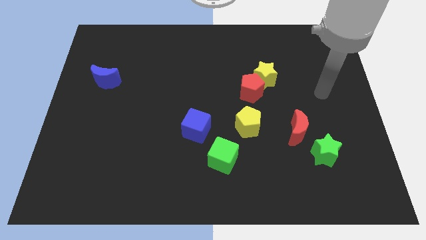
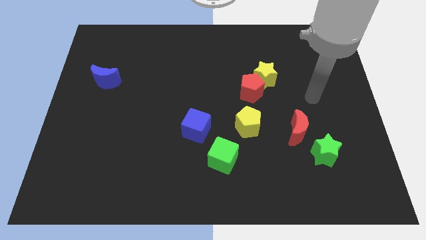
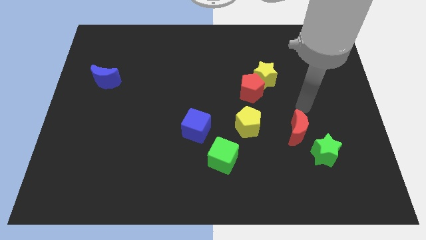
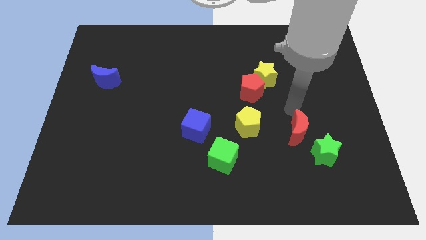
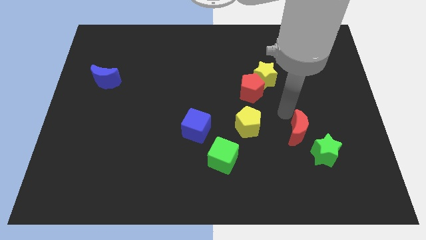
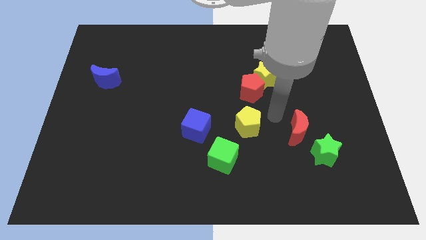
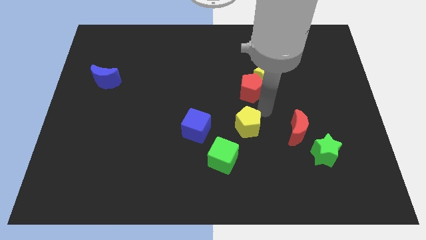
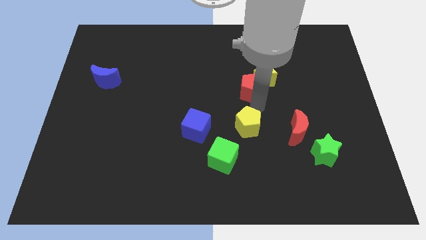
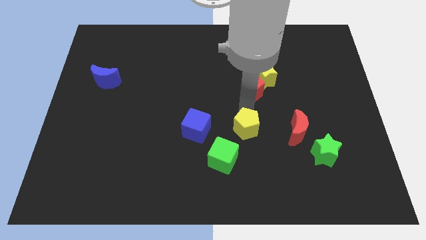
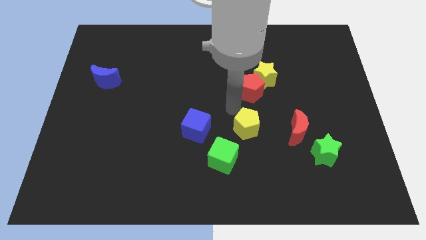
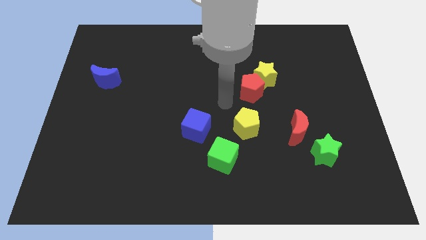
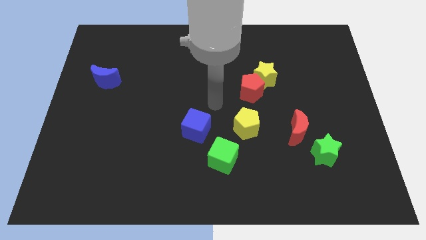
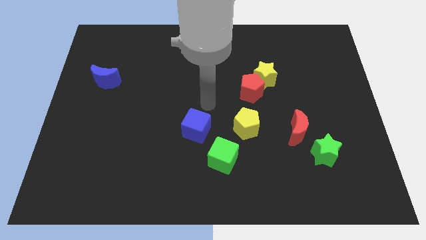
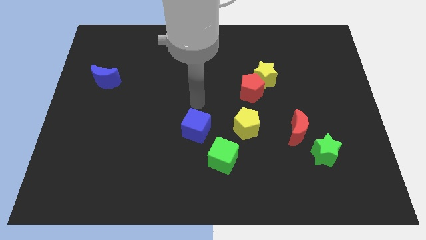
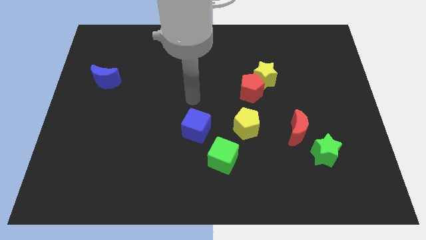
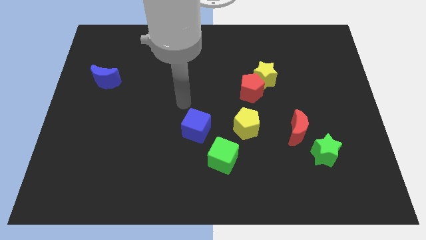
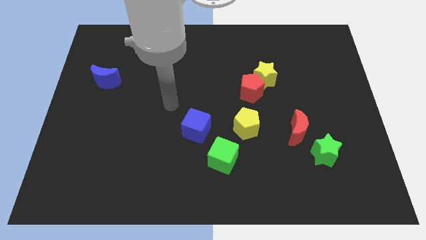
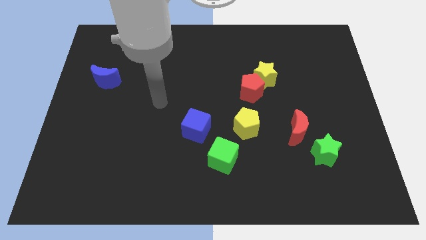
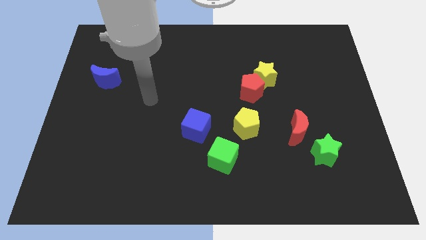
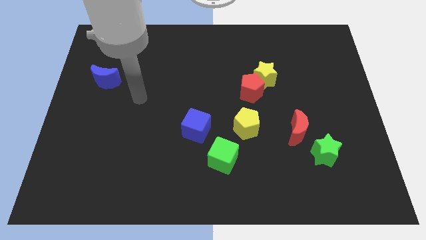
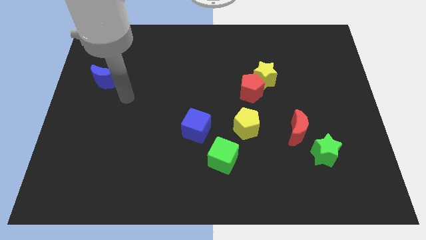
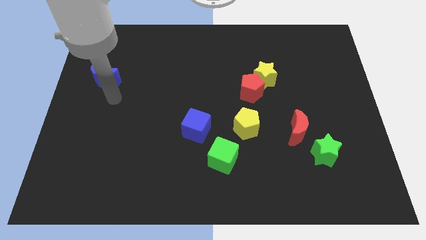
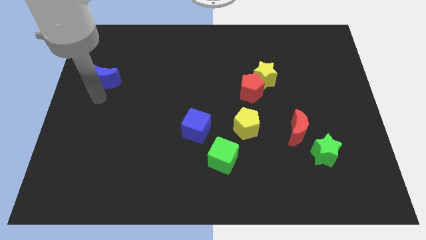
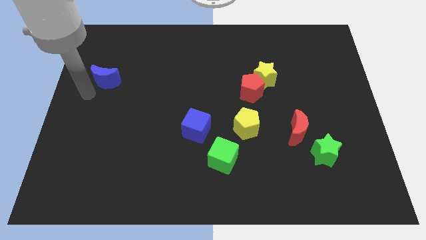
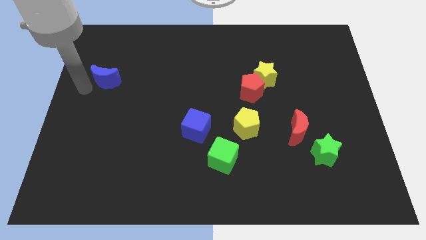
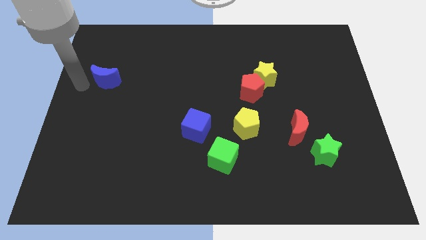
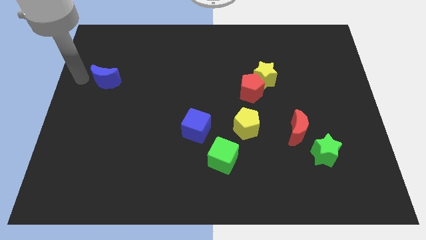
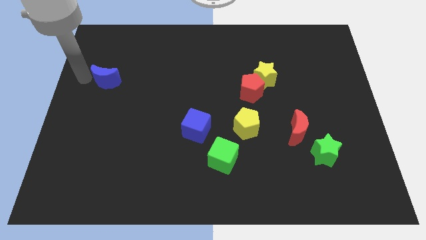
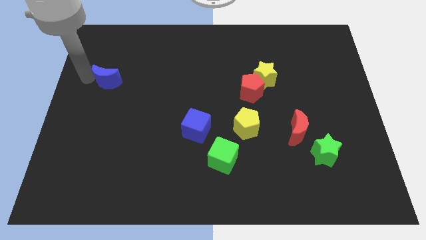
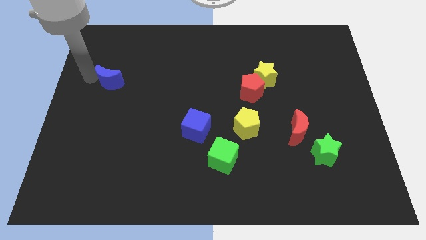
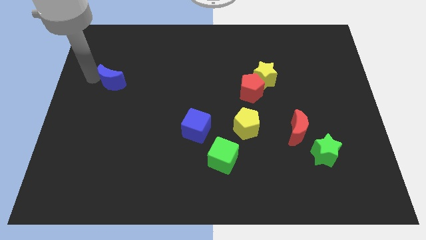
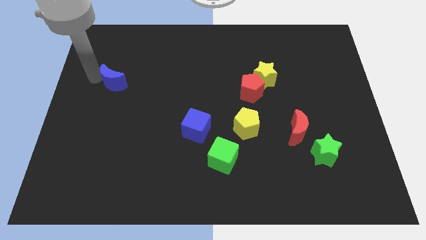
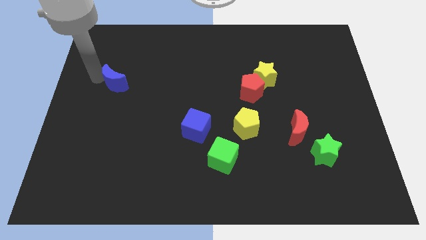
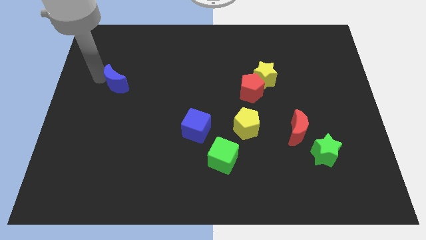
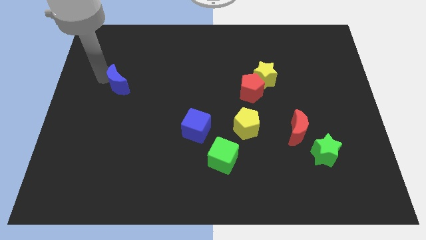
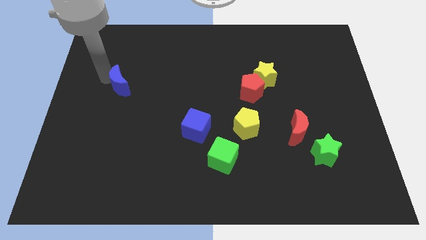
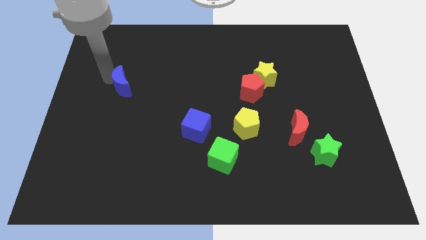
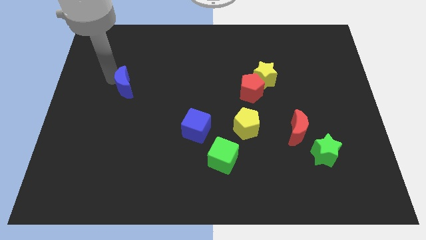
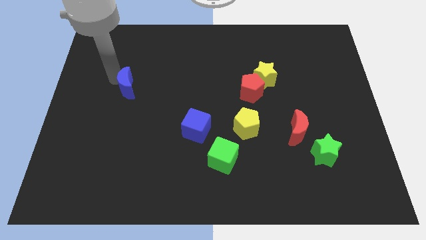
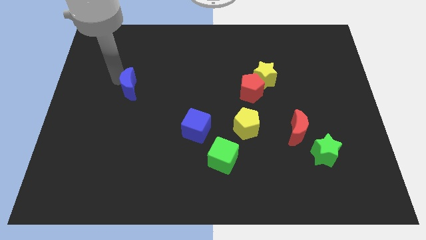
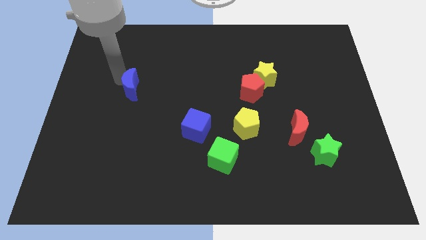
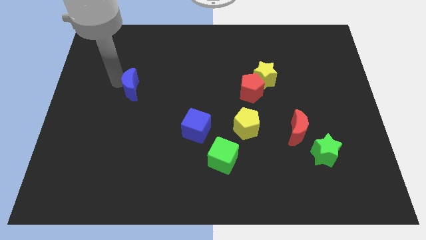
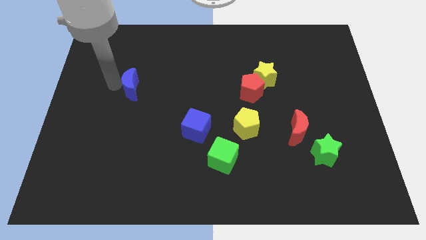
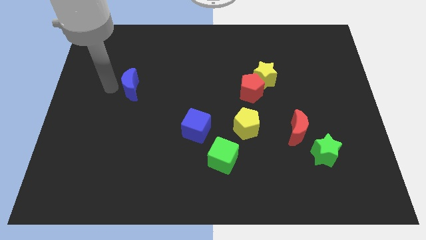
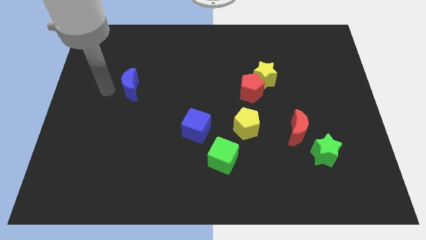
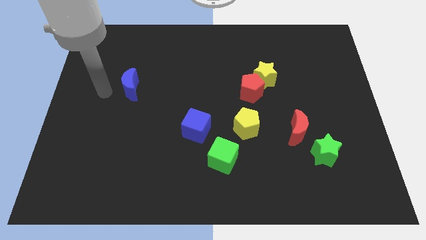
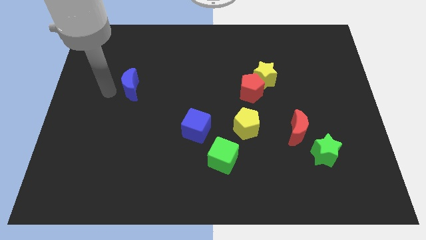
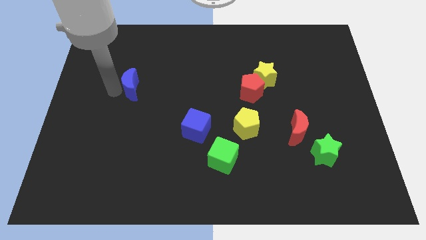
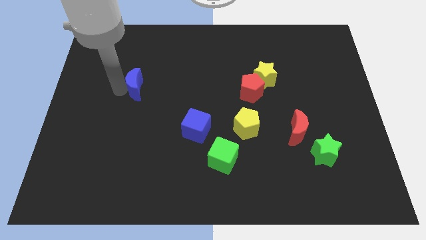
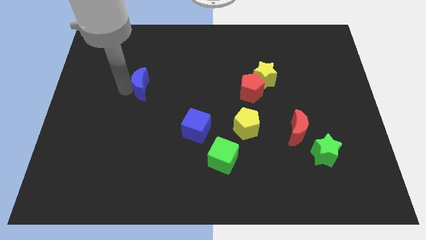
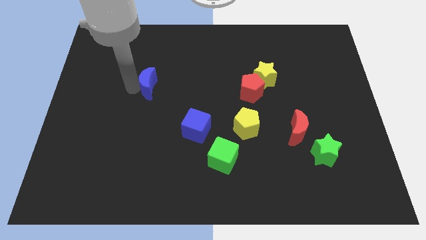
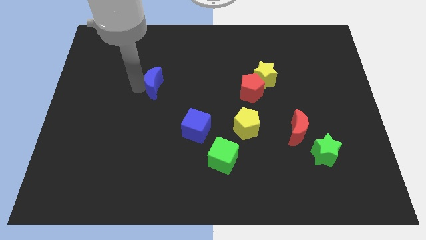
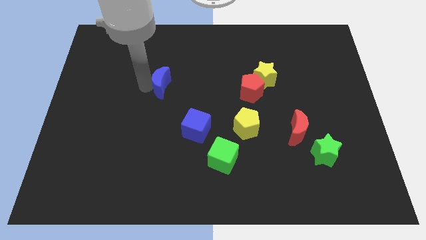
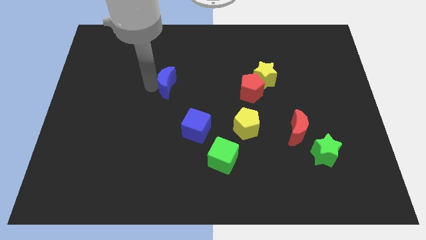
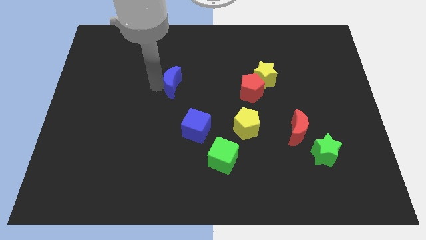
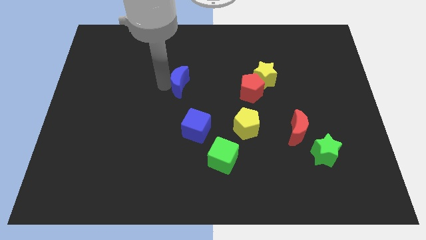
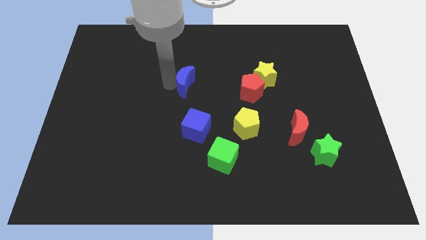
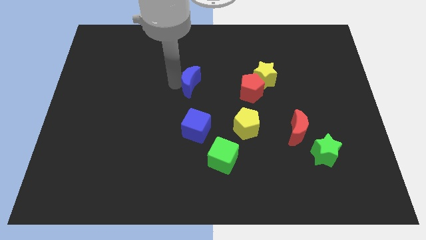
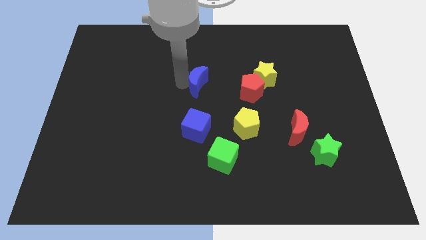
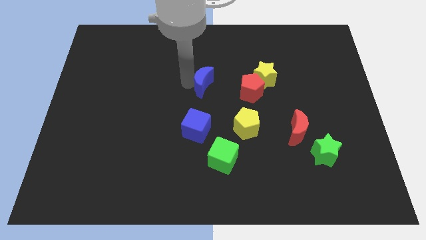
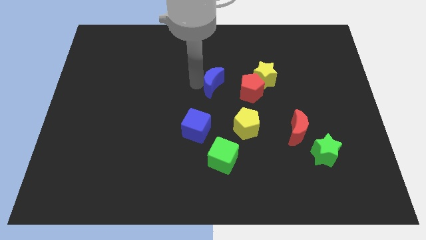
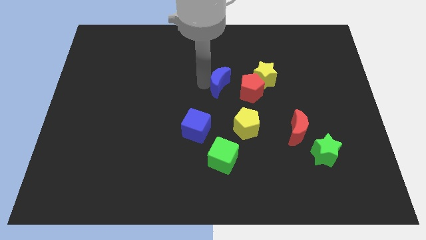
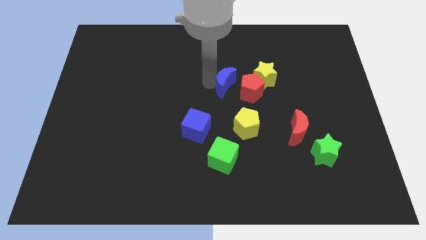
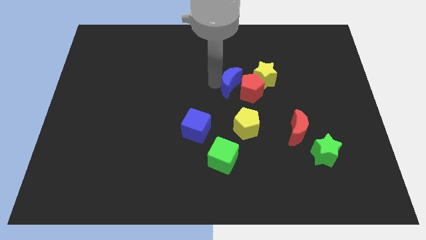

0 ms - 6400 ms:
move the blue moon next to the red pentagon

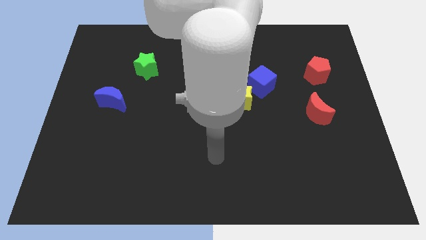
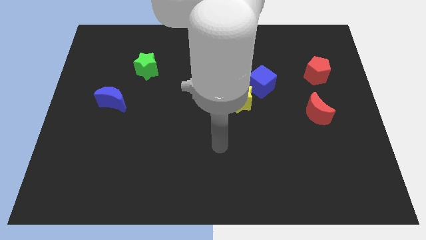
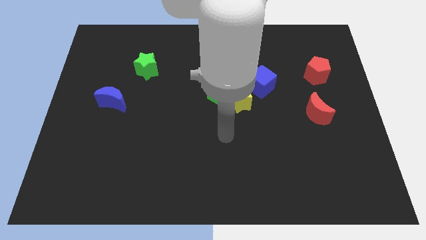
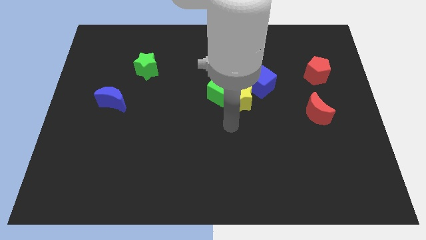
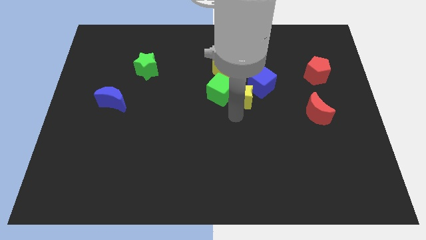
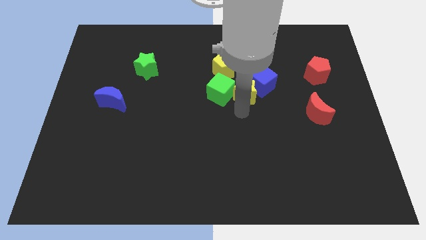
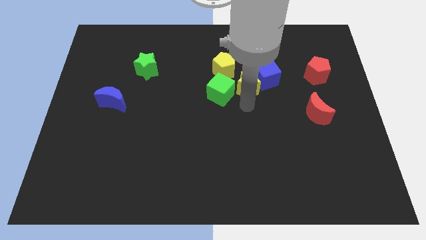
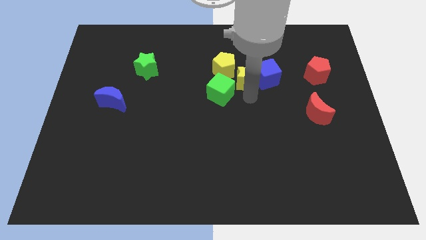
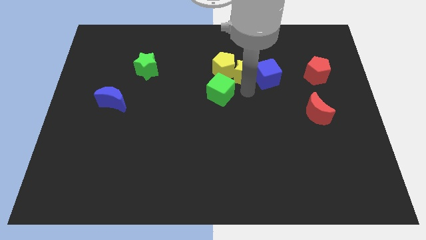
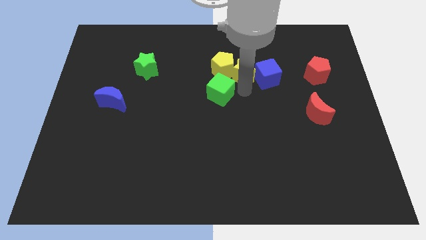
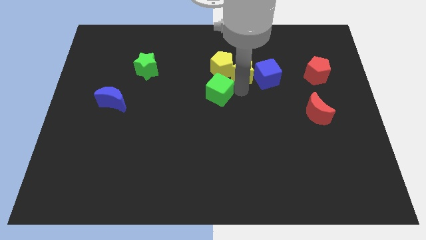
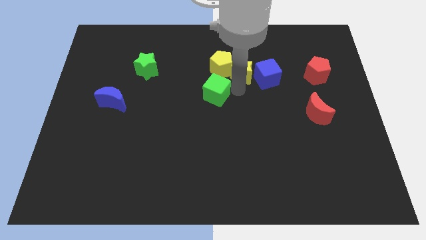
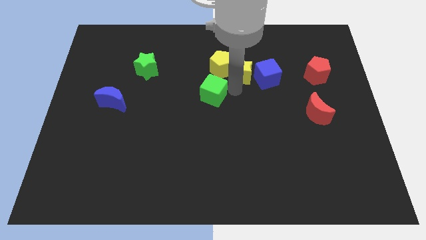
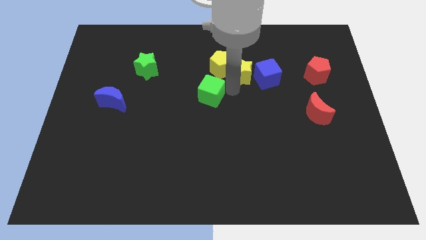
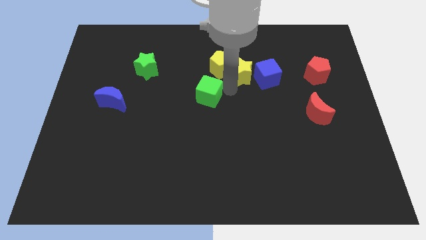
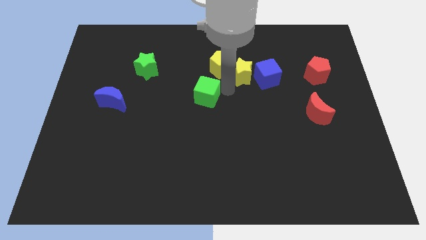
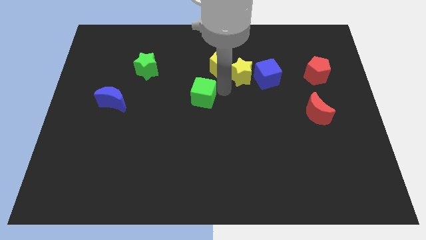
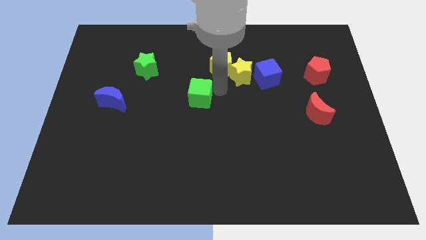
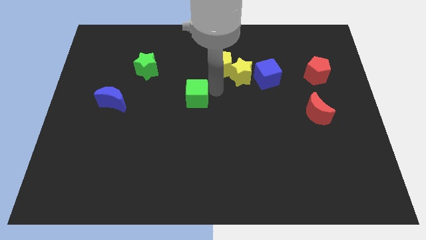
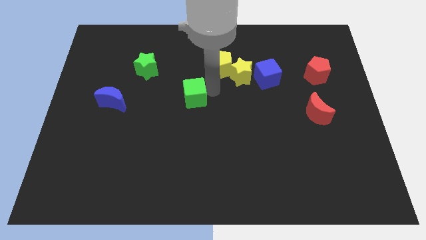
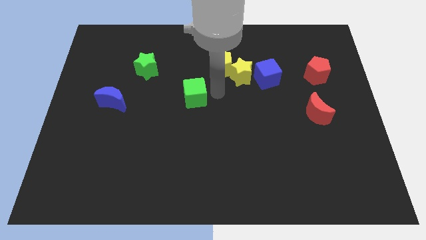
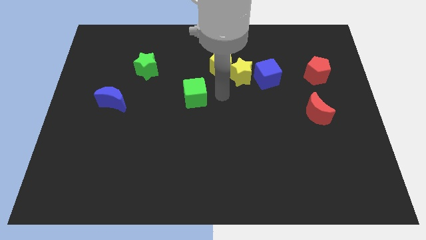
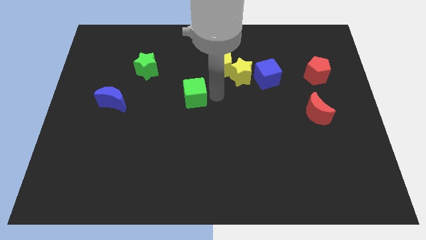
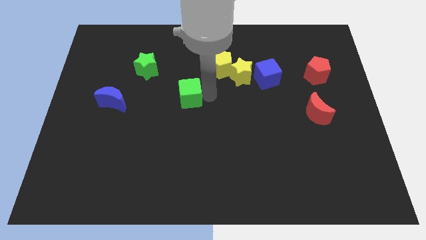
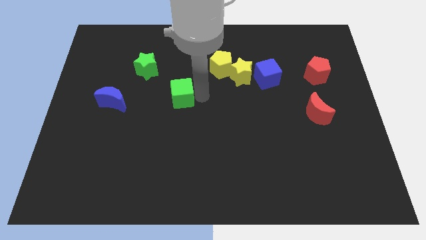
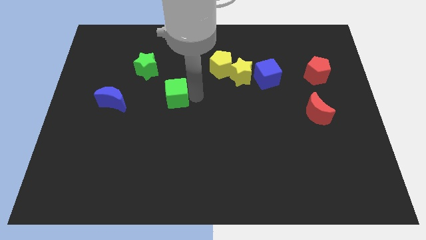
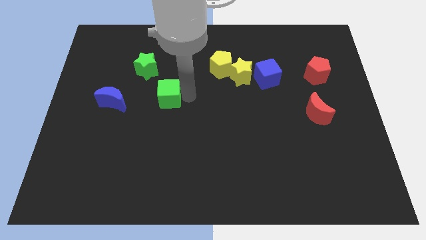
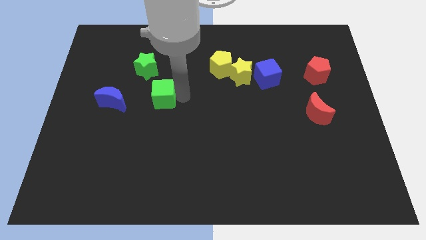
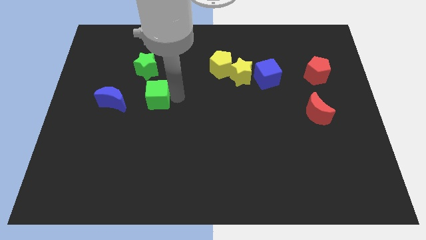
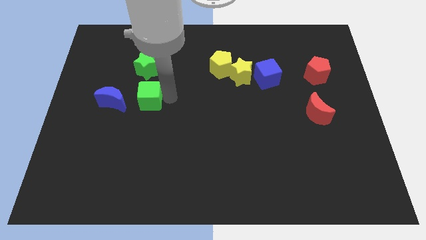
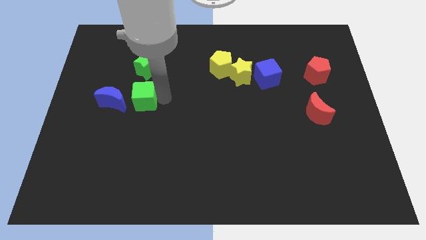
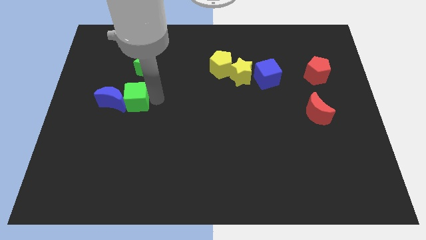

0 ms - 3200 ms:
move the green cube next to the blue moon
